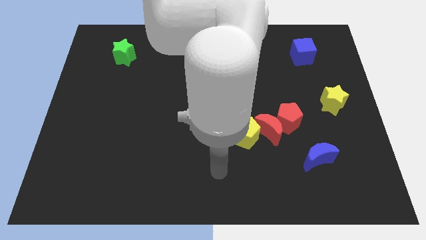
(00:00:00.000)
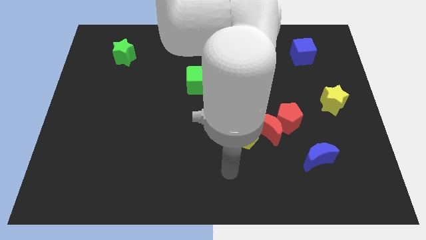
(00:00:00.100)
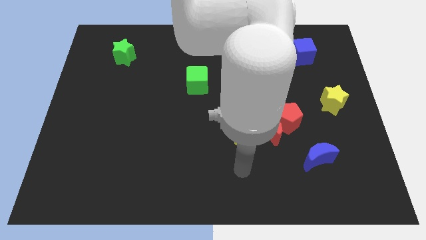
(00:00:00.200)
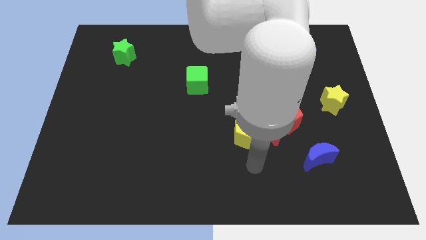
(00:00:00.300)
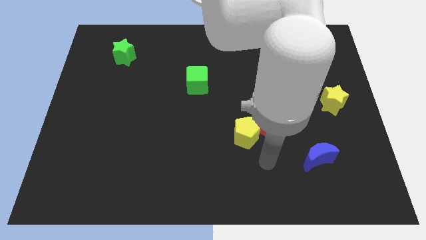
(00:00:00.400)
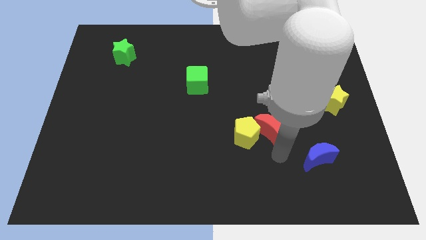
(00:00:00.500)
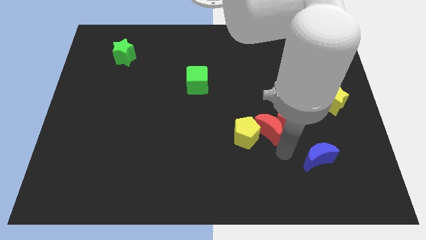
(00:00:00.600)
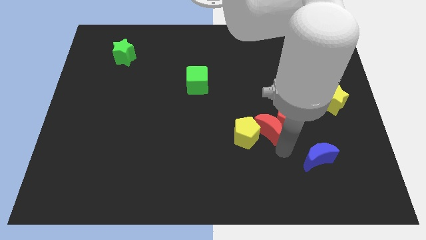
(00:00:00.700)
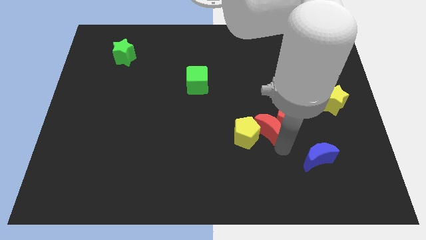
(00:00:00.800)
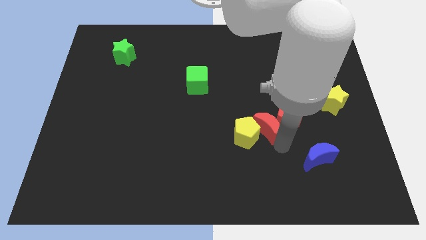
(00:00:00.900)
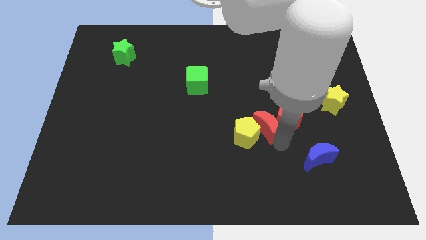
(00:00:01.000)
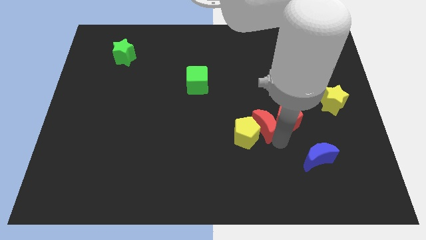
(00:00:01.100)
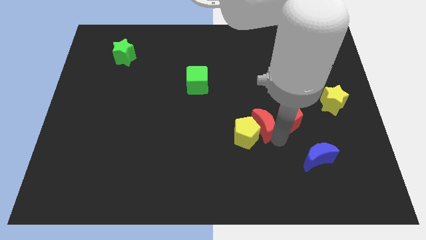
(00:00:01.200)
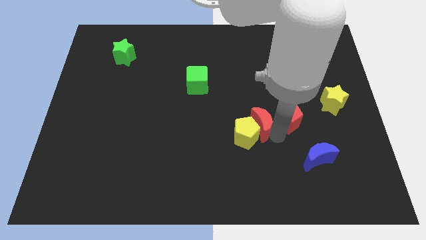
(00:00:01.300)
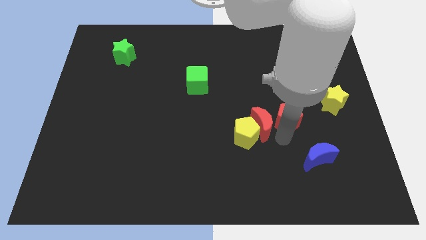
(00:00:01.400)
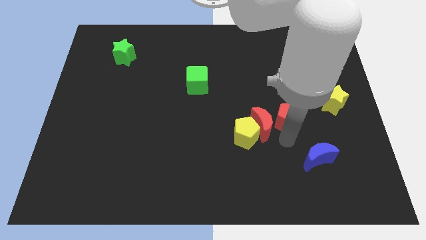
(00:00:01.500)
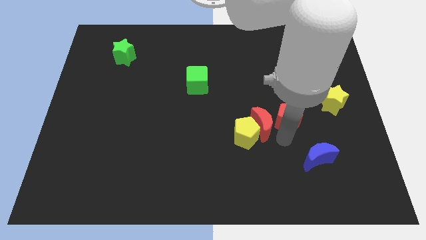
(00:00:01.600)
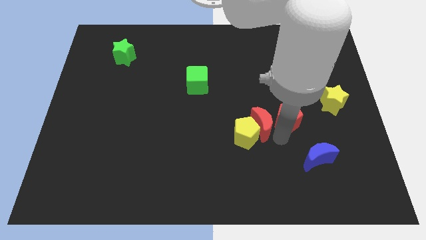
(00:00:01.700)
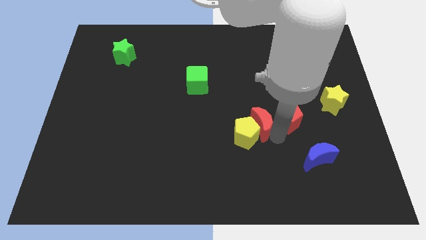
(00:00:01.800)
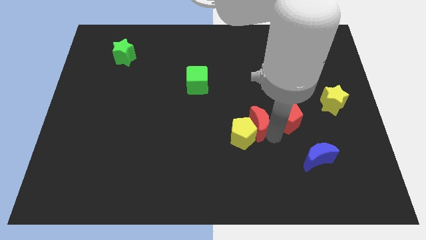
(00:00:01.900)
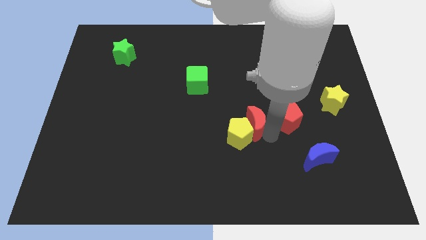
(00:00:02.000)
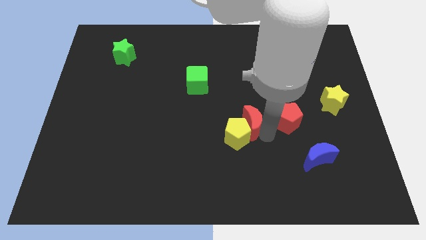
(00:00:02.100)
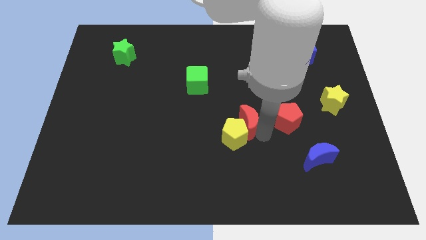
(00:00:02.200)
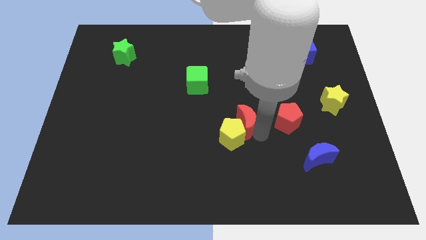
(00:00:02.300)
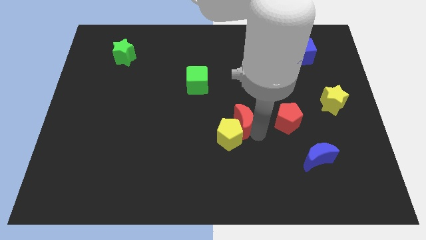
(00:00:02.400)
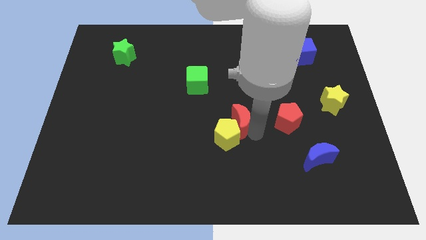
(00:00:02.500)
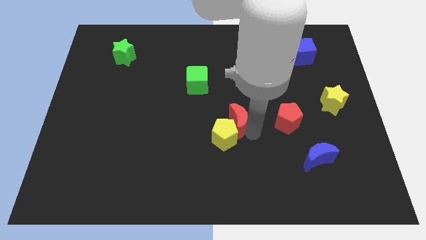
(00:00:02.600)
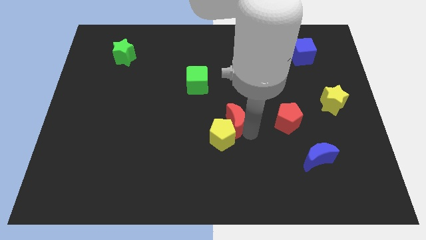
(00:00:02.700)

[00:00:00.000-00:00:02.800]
slightly move the red moon to the left

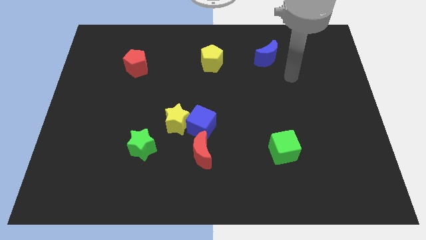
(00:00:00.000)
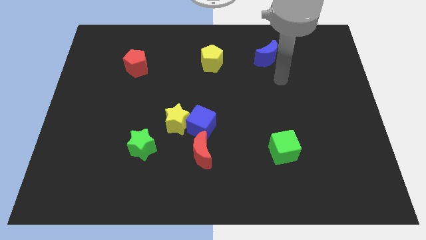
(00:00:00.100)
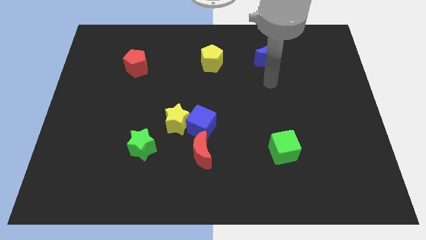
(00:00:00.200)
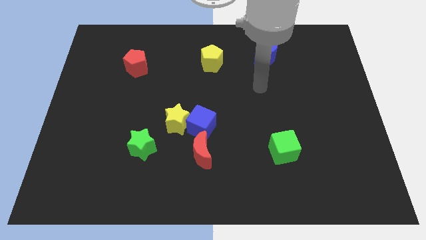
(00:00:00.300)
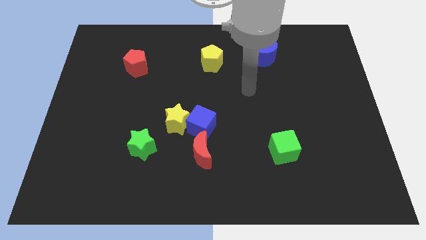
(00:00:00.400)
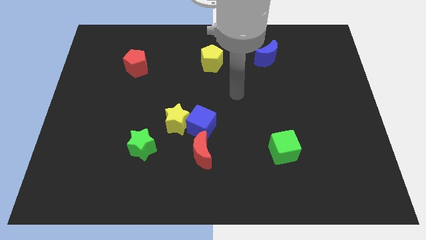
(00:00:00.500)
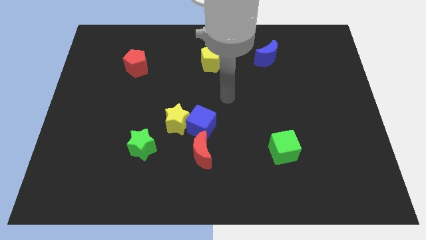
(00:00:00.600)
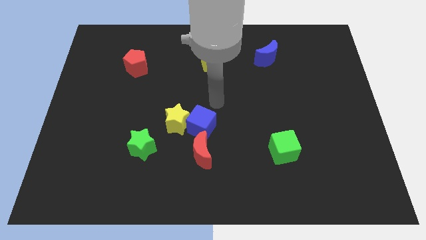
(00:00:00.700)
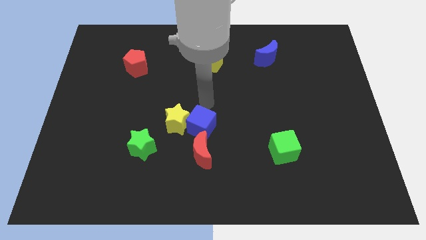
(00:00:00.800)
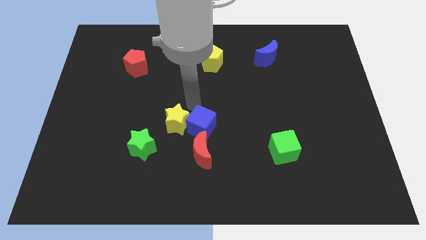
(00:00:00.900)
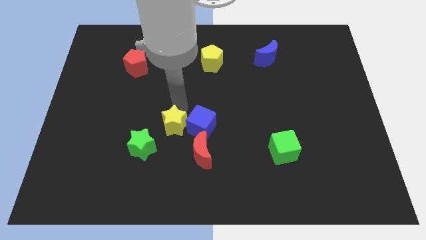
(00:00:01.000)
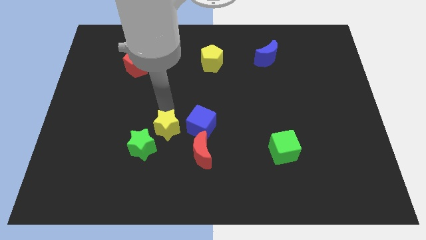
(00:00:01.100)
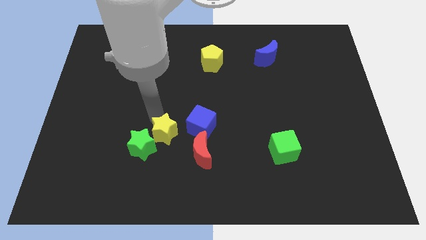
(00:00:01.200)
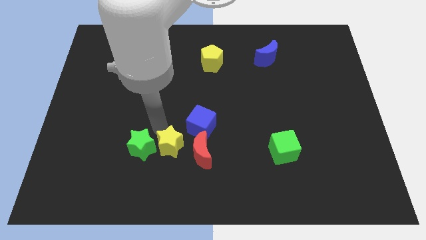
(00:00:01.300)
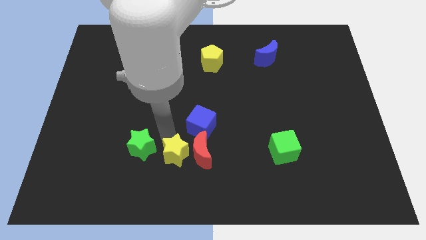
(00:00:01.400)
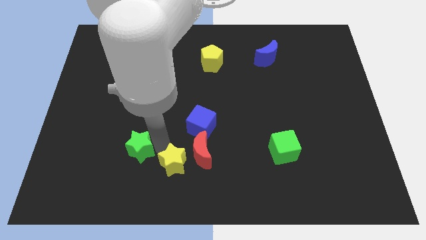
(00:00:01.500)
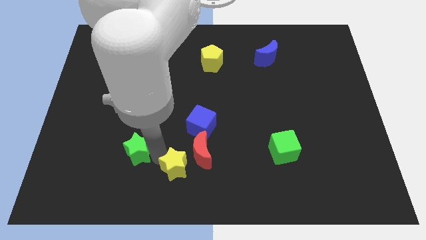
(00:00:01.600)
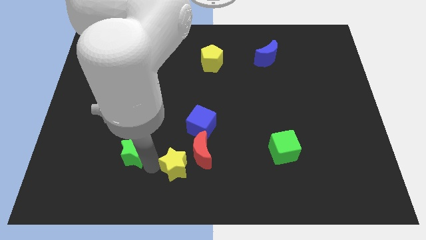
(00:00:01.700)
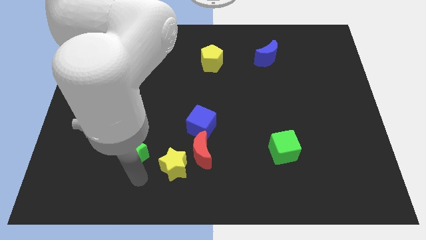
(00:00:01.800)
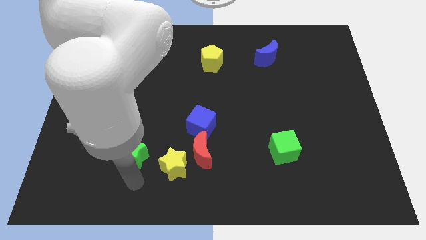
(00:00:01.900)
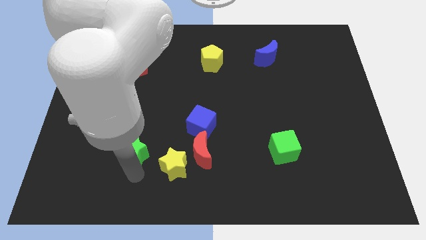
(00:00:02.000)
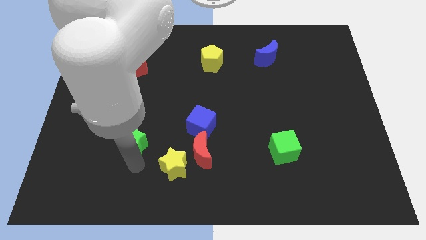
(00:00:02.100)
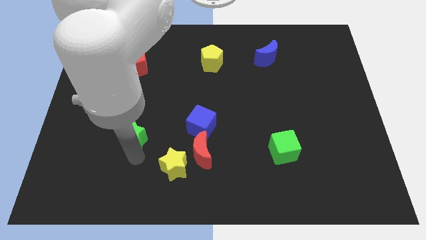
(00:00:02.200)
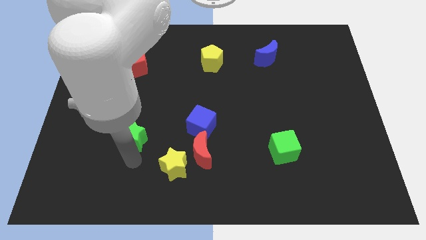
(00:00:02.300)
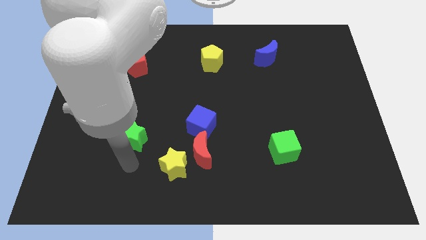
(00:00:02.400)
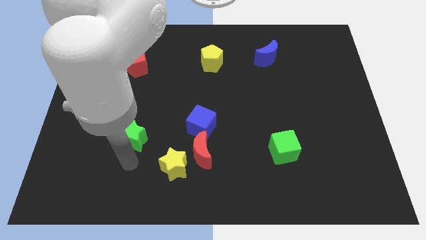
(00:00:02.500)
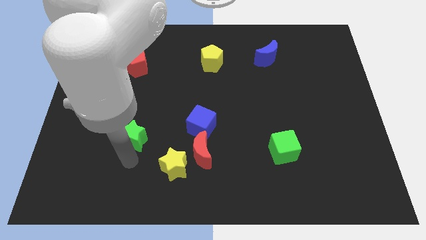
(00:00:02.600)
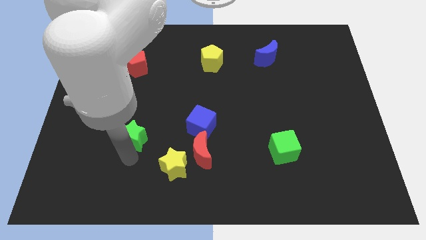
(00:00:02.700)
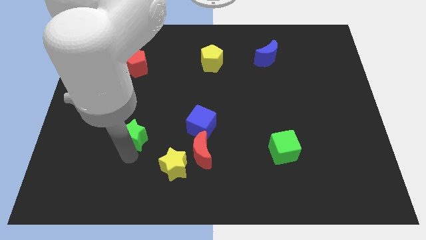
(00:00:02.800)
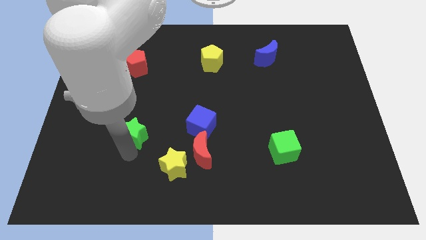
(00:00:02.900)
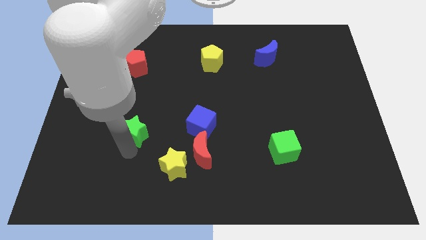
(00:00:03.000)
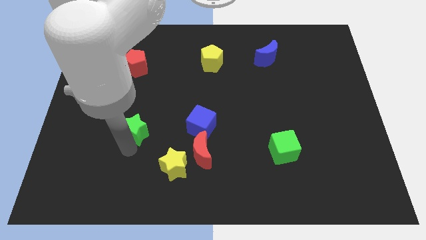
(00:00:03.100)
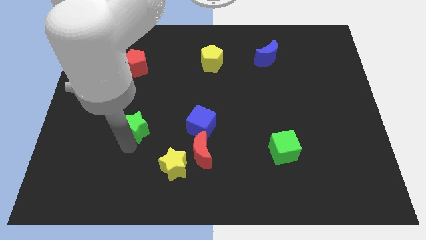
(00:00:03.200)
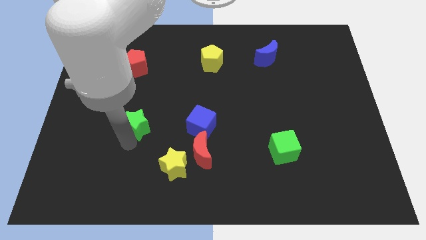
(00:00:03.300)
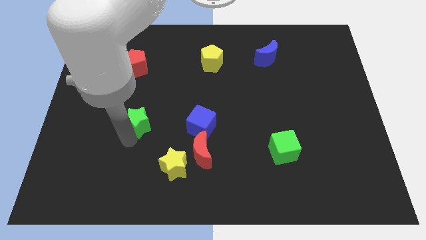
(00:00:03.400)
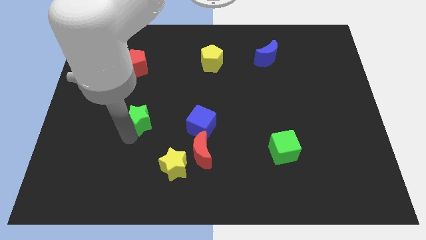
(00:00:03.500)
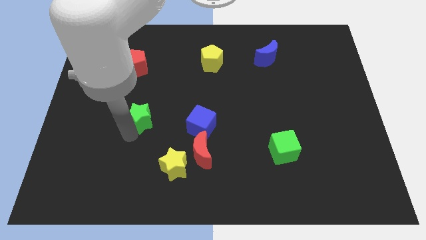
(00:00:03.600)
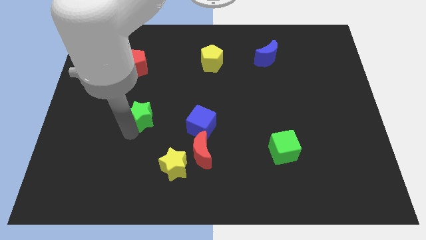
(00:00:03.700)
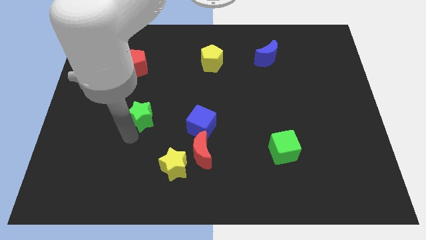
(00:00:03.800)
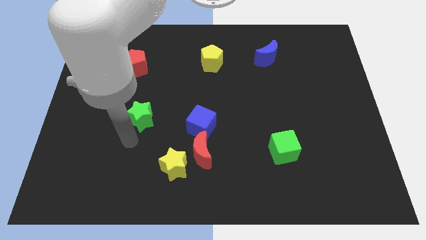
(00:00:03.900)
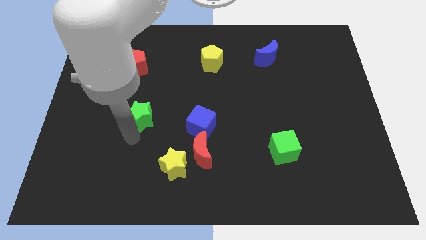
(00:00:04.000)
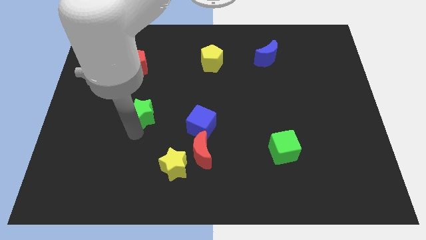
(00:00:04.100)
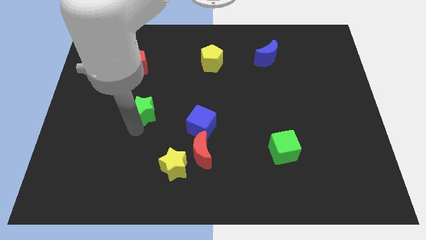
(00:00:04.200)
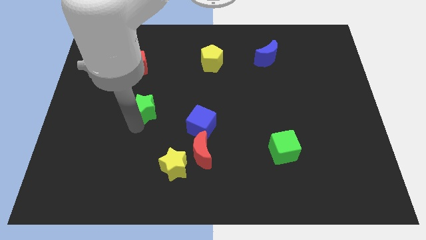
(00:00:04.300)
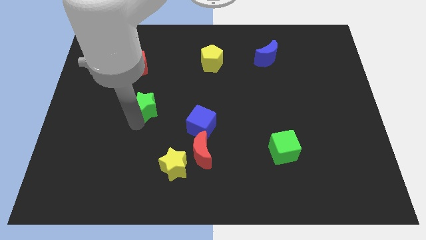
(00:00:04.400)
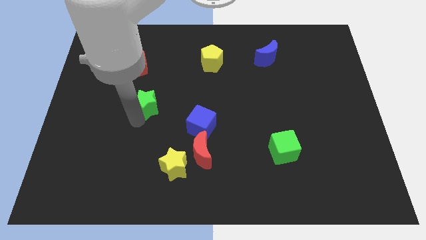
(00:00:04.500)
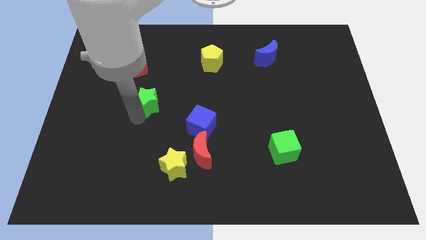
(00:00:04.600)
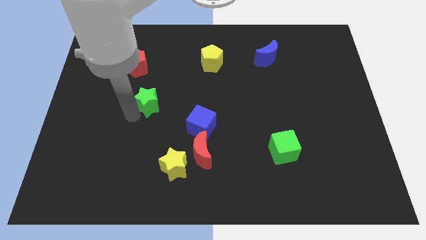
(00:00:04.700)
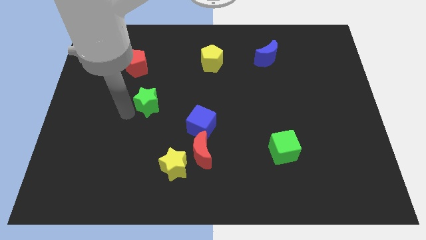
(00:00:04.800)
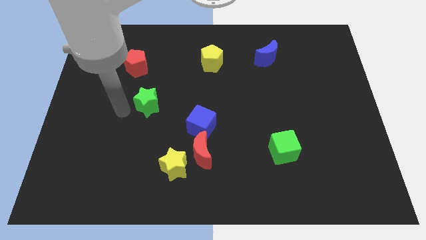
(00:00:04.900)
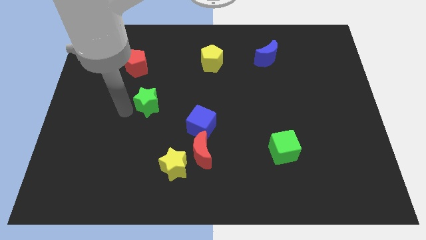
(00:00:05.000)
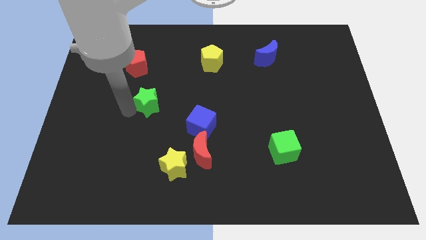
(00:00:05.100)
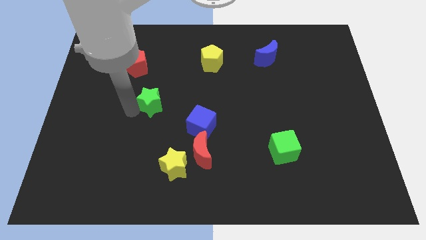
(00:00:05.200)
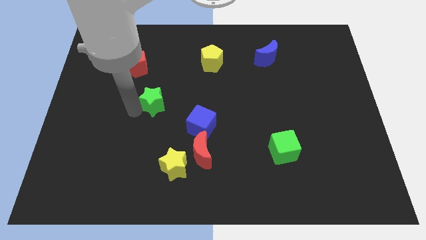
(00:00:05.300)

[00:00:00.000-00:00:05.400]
slide the green star upwards and then to the right slightly
